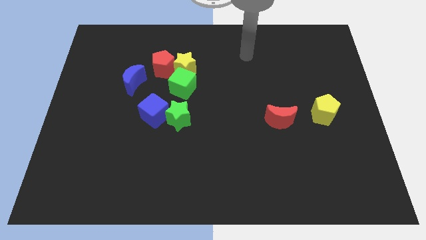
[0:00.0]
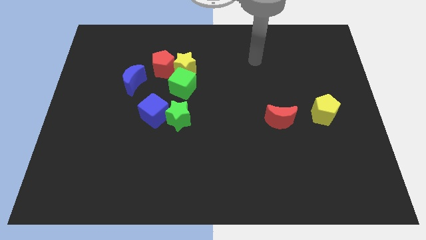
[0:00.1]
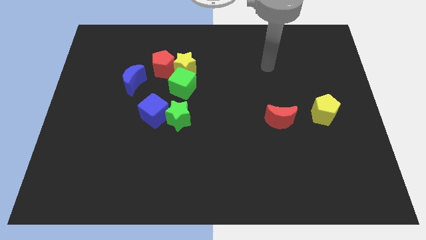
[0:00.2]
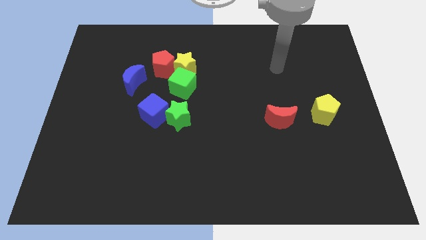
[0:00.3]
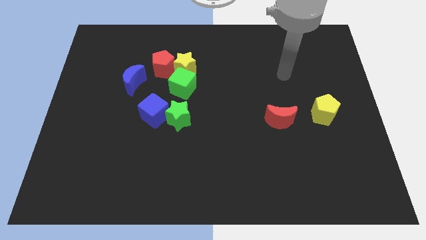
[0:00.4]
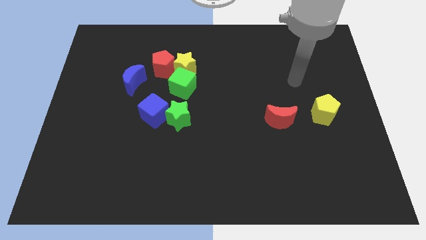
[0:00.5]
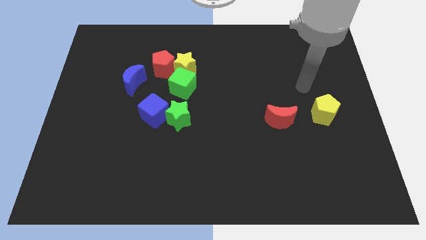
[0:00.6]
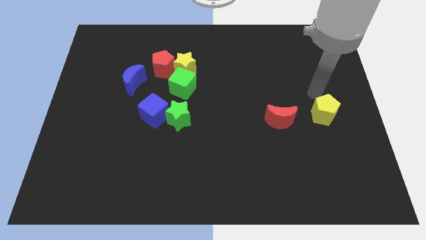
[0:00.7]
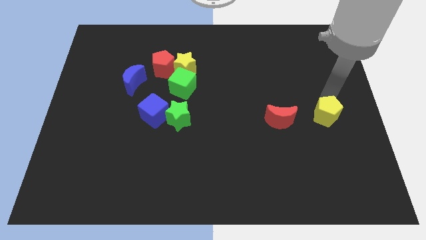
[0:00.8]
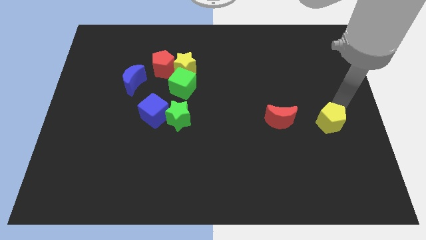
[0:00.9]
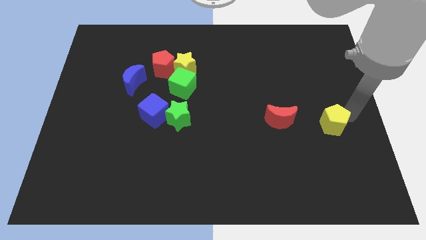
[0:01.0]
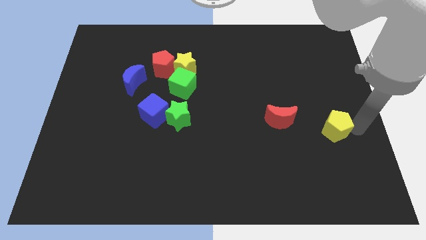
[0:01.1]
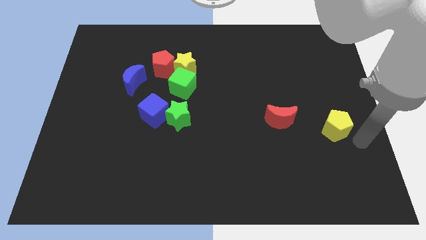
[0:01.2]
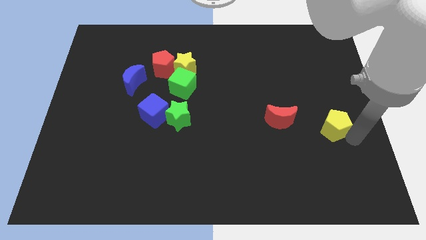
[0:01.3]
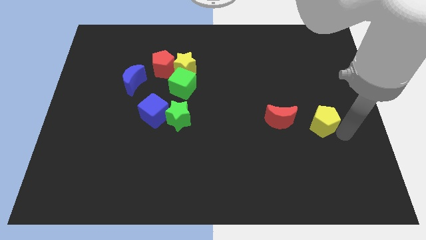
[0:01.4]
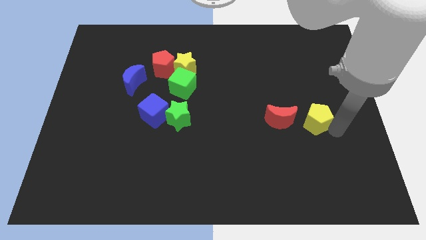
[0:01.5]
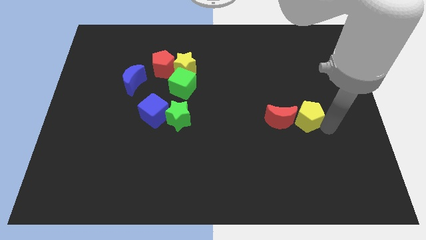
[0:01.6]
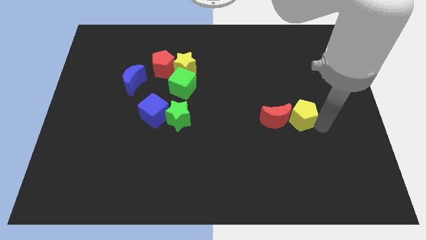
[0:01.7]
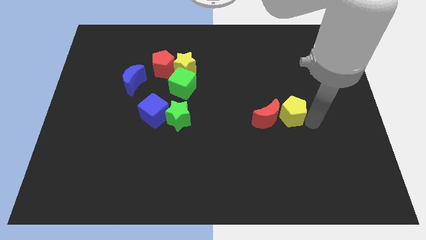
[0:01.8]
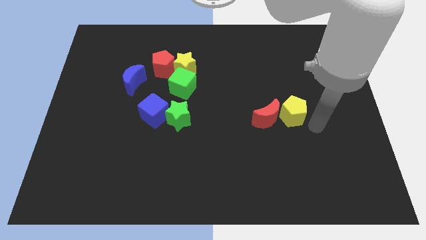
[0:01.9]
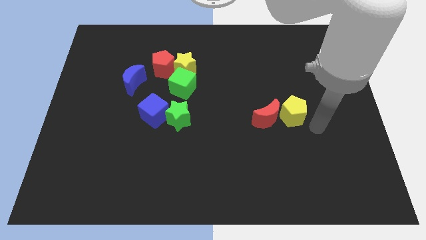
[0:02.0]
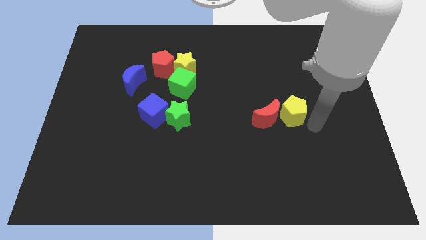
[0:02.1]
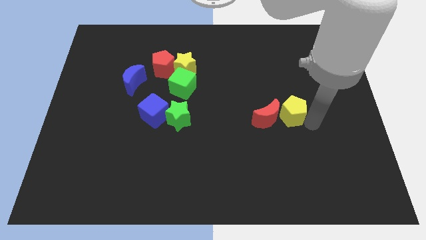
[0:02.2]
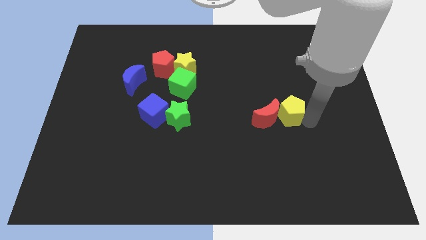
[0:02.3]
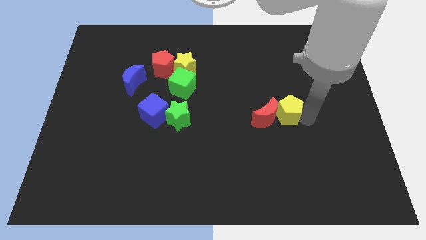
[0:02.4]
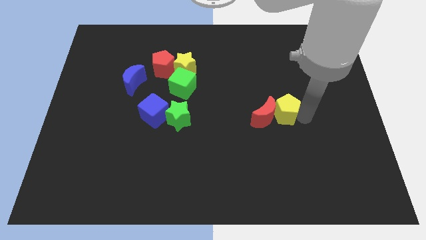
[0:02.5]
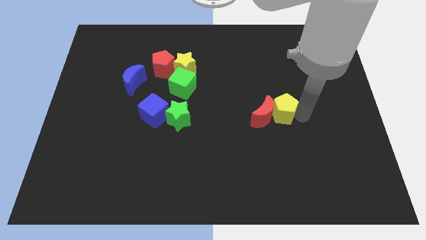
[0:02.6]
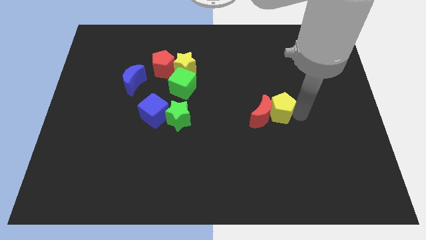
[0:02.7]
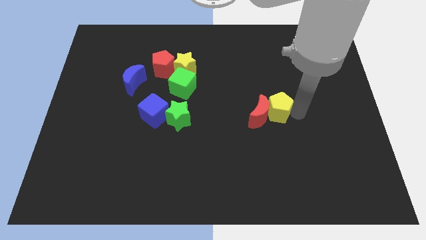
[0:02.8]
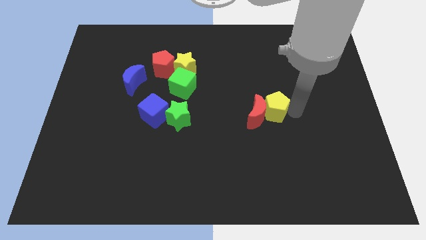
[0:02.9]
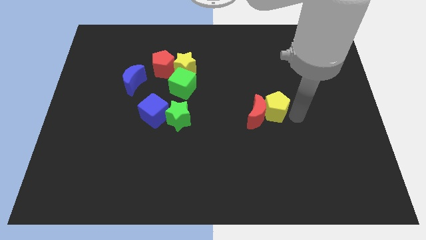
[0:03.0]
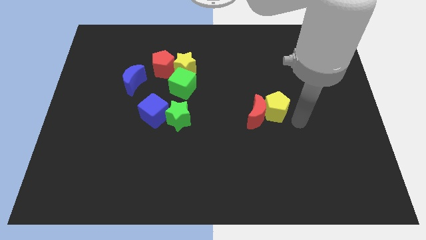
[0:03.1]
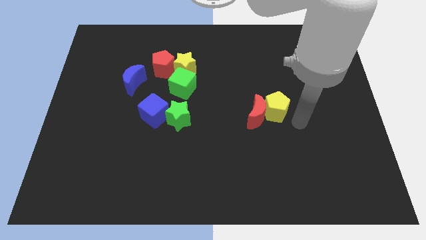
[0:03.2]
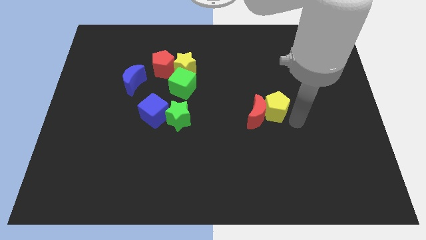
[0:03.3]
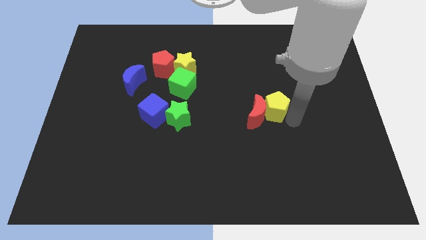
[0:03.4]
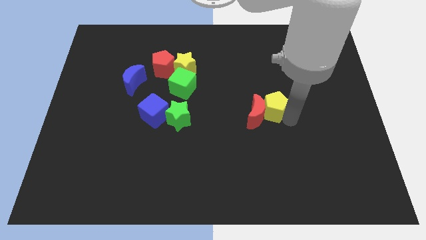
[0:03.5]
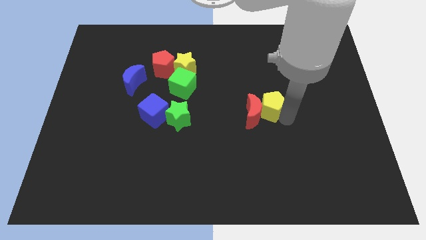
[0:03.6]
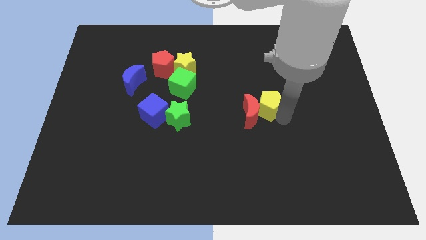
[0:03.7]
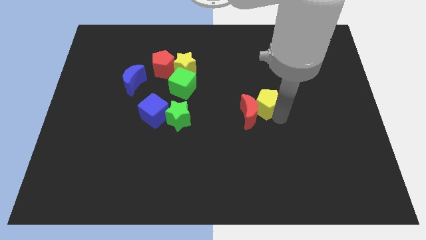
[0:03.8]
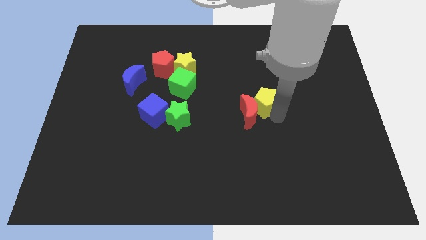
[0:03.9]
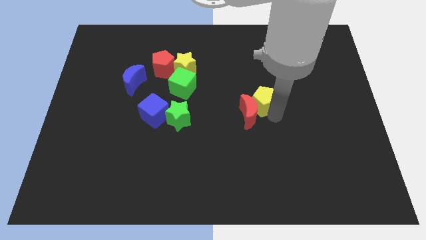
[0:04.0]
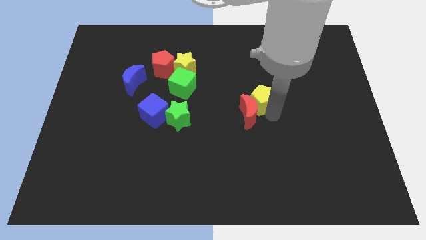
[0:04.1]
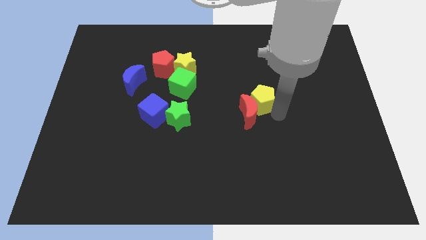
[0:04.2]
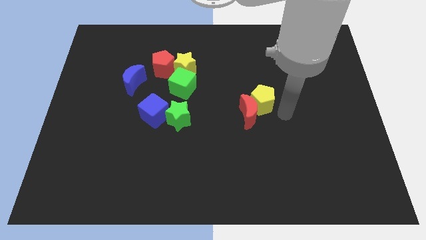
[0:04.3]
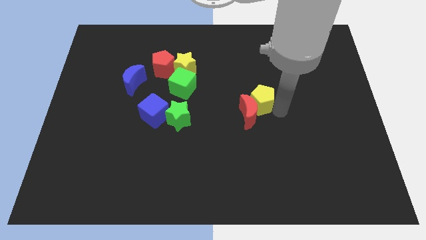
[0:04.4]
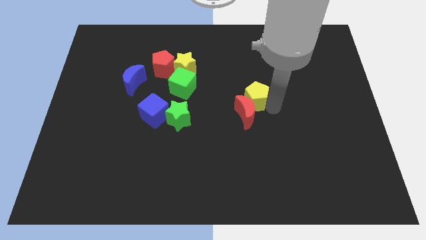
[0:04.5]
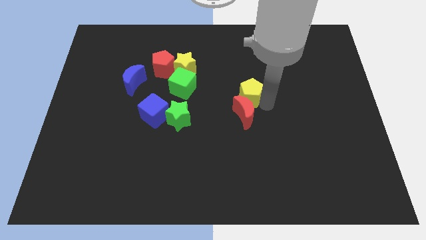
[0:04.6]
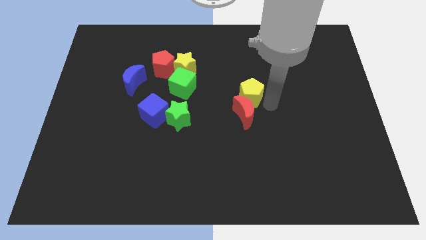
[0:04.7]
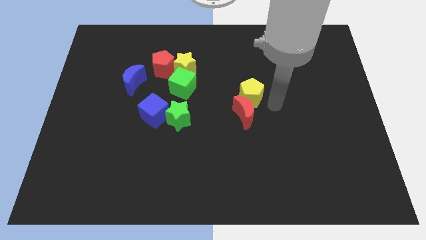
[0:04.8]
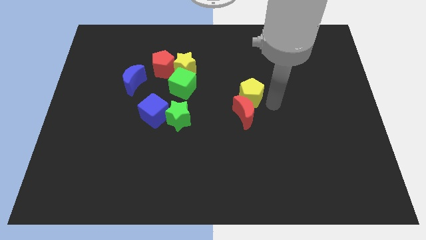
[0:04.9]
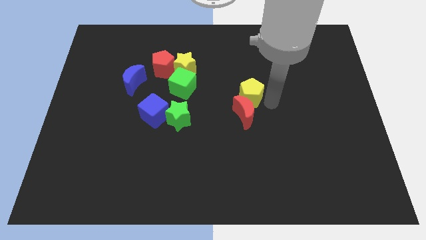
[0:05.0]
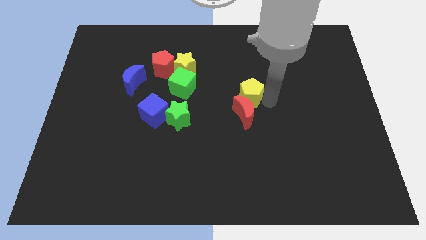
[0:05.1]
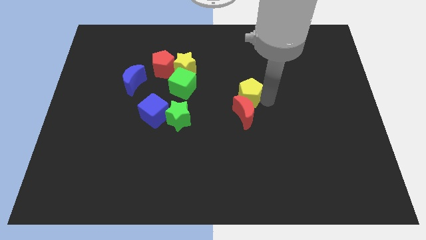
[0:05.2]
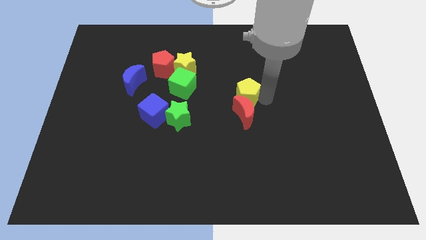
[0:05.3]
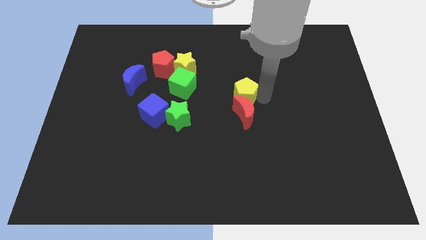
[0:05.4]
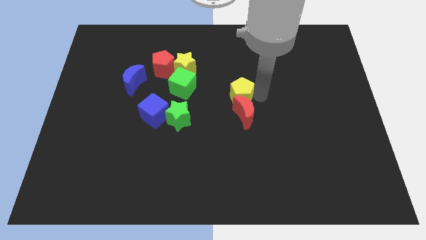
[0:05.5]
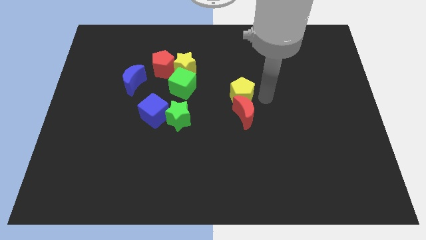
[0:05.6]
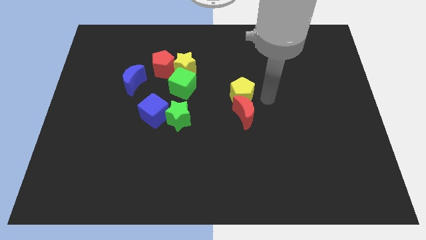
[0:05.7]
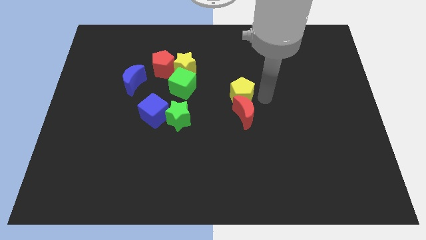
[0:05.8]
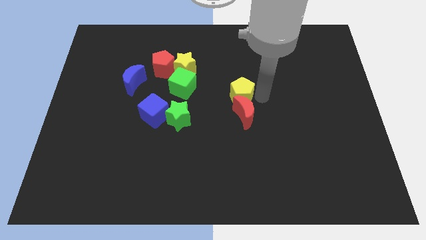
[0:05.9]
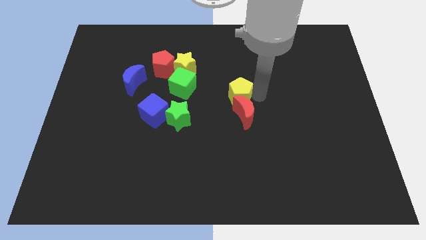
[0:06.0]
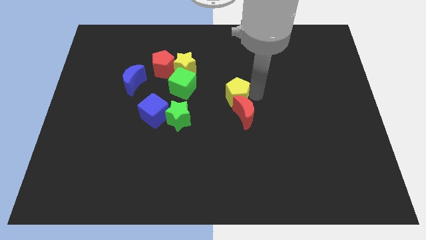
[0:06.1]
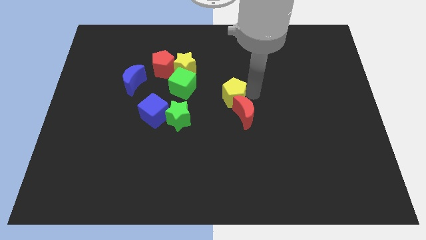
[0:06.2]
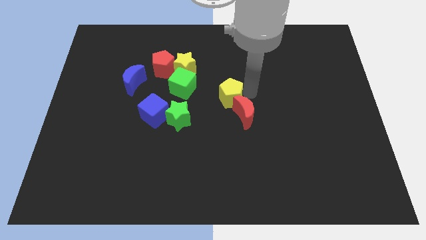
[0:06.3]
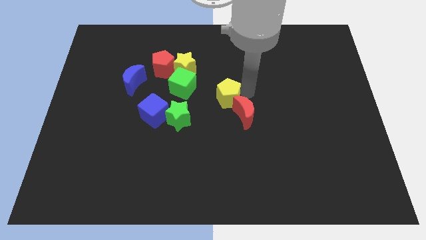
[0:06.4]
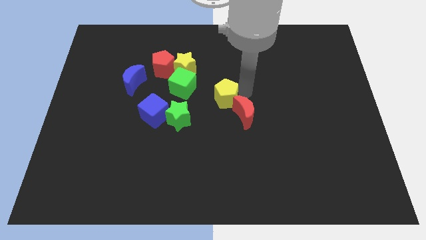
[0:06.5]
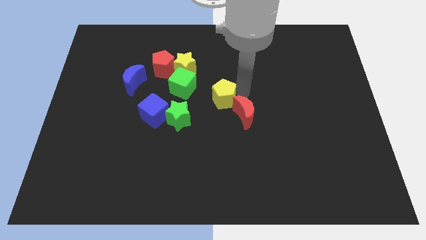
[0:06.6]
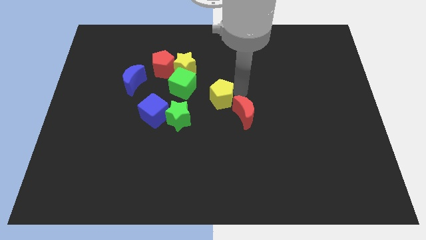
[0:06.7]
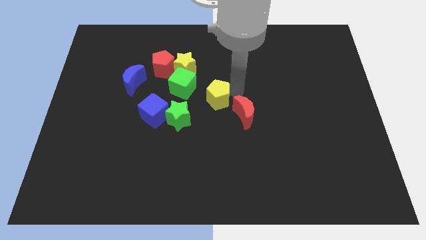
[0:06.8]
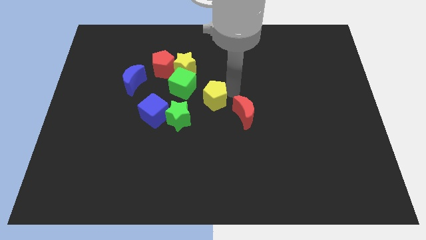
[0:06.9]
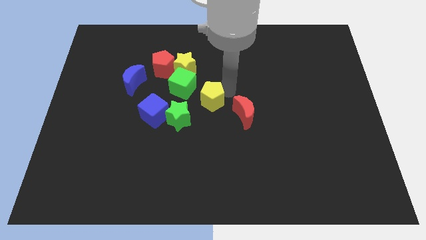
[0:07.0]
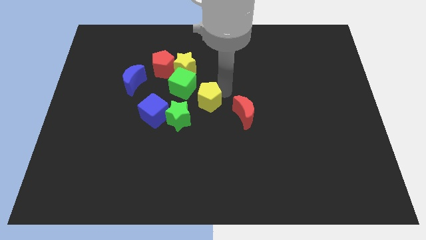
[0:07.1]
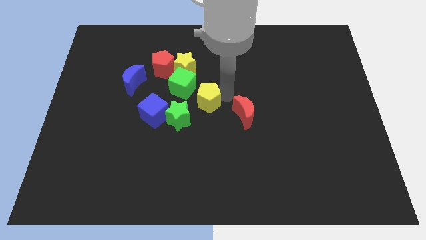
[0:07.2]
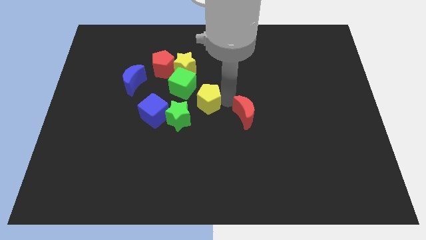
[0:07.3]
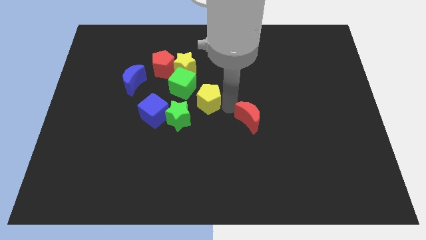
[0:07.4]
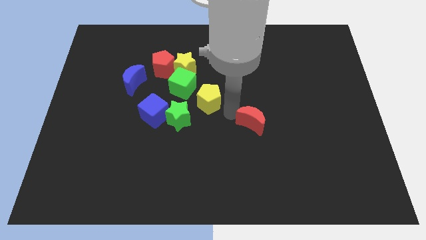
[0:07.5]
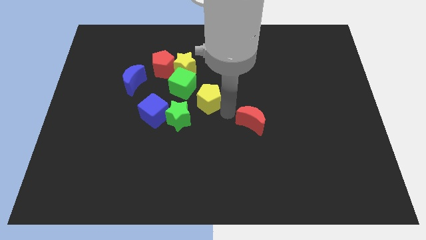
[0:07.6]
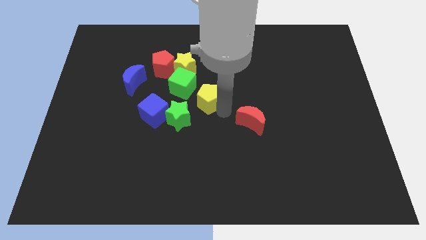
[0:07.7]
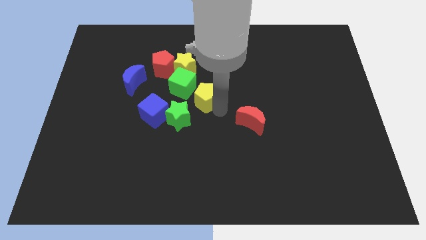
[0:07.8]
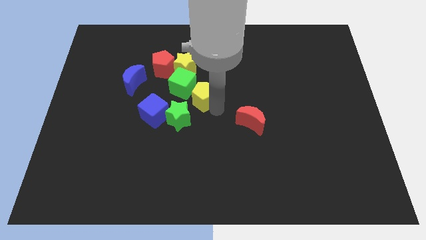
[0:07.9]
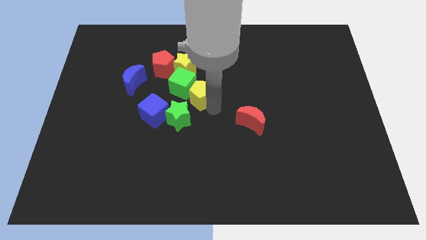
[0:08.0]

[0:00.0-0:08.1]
slide the yellow pentagon to the green cube
